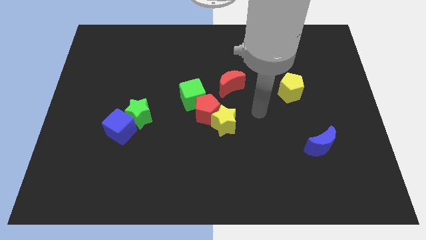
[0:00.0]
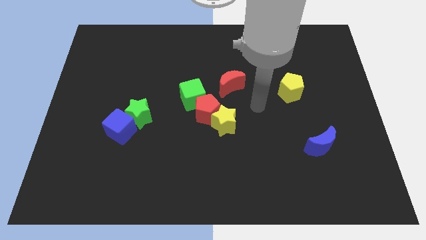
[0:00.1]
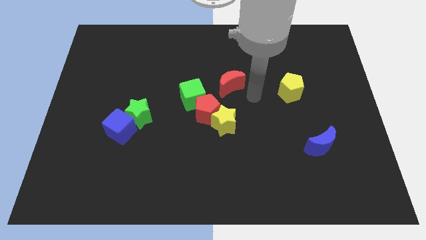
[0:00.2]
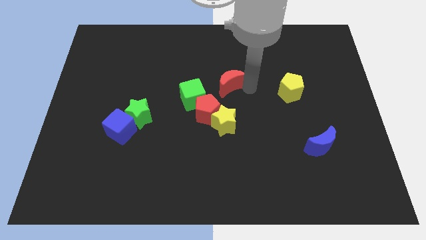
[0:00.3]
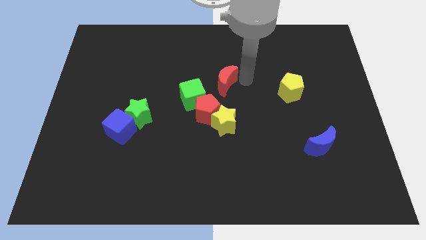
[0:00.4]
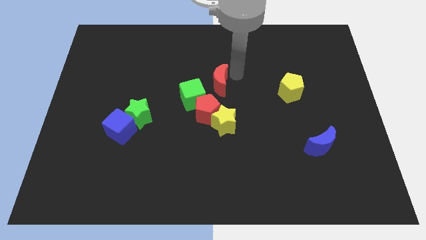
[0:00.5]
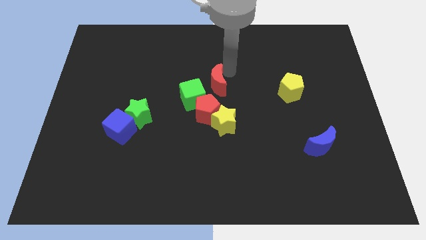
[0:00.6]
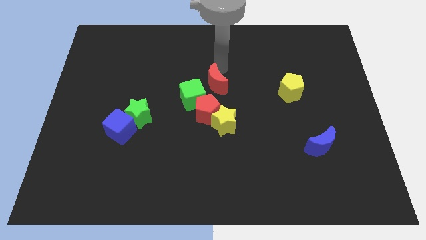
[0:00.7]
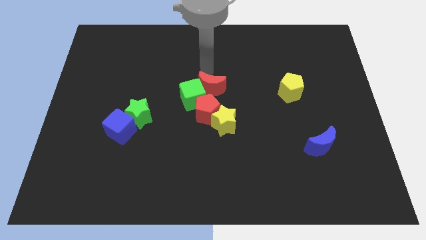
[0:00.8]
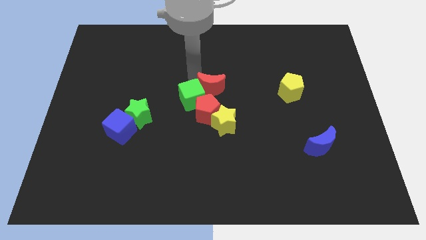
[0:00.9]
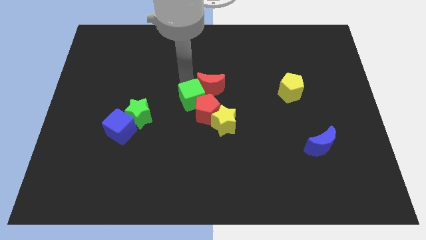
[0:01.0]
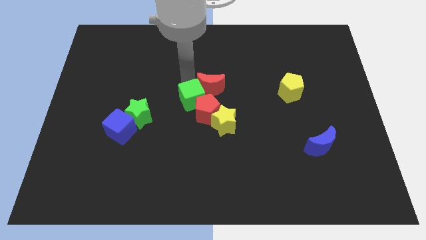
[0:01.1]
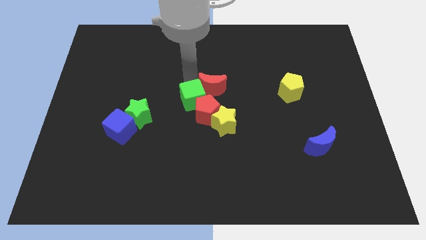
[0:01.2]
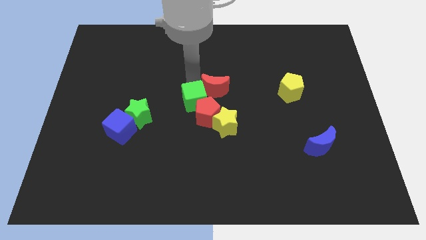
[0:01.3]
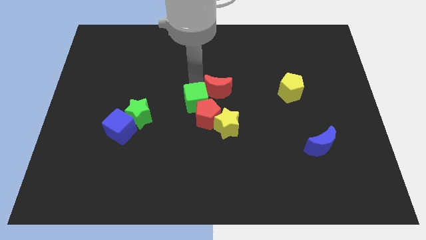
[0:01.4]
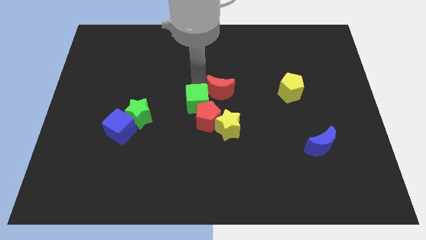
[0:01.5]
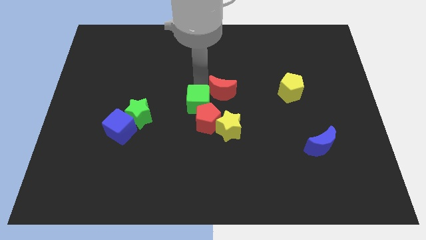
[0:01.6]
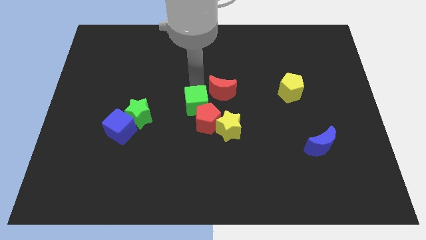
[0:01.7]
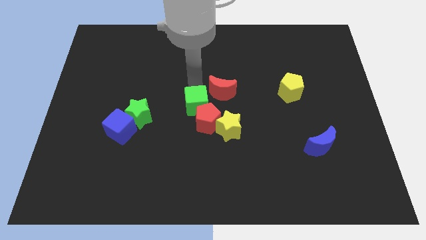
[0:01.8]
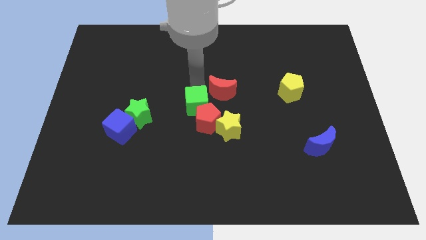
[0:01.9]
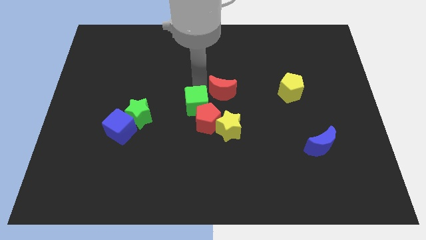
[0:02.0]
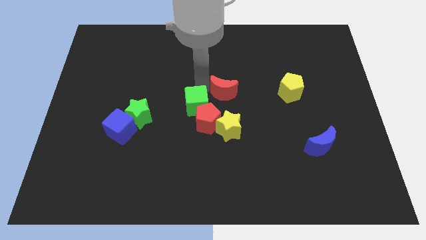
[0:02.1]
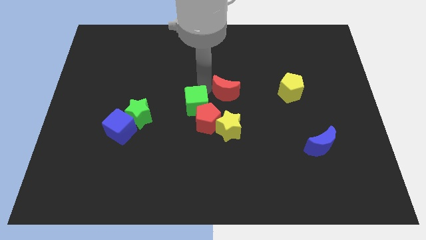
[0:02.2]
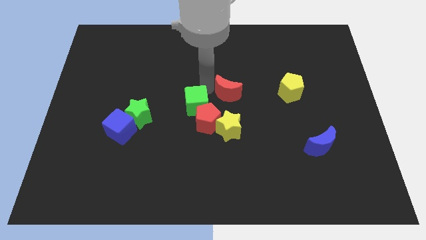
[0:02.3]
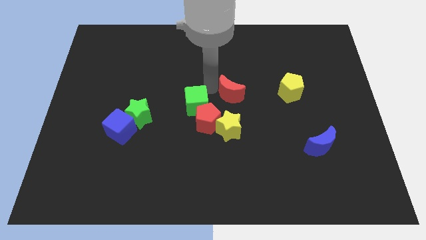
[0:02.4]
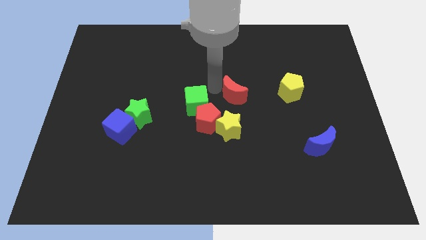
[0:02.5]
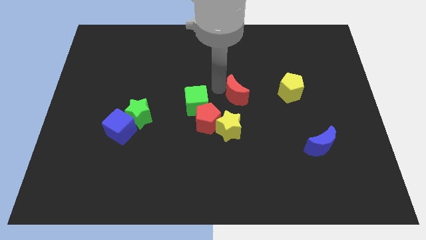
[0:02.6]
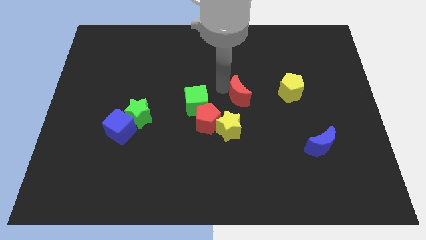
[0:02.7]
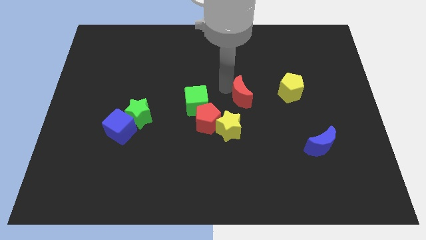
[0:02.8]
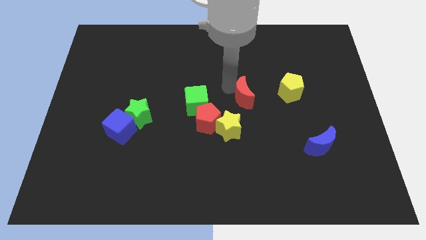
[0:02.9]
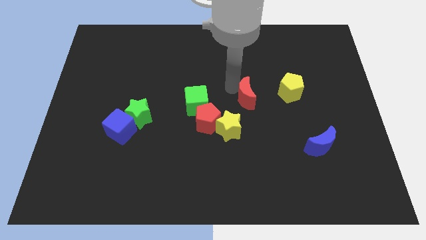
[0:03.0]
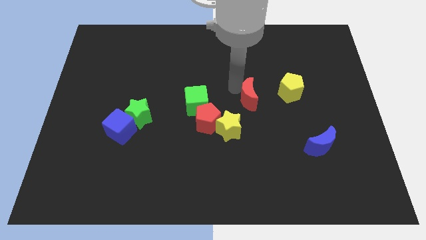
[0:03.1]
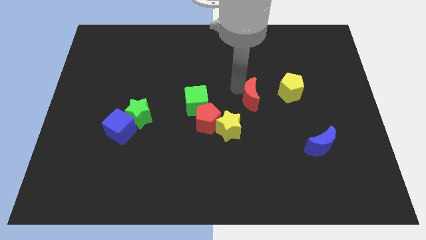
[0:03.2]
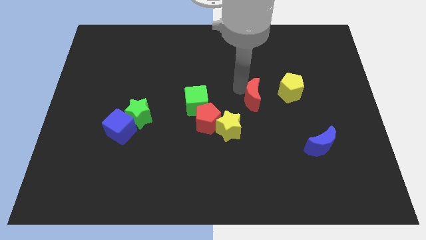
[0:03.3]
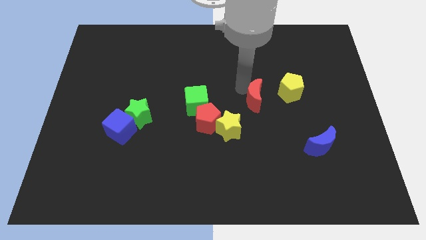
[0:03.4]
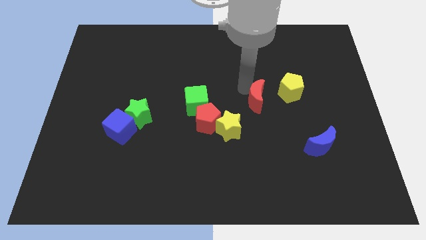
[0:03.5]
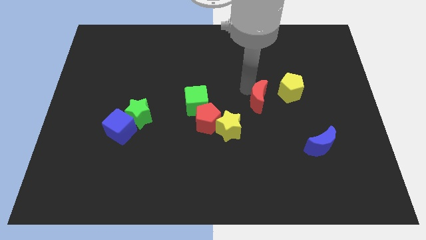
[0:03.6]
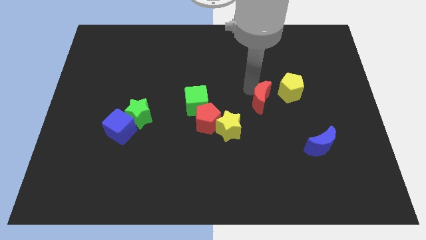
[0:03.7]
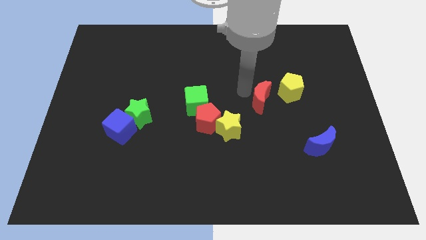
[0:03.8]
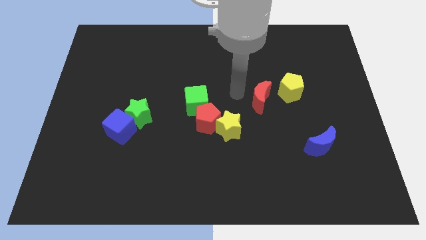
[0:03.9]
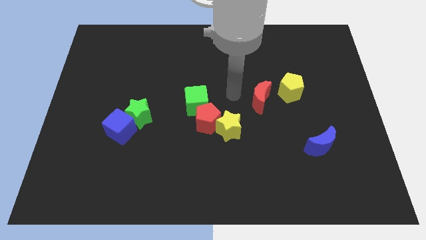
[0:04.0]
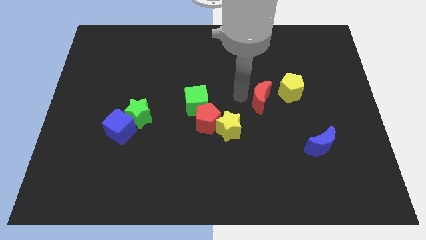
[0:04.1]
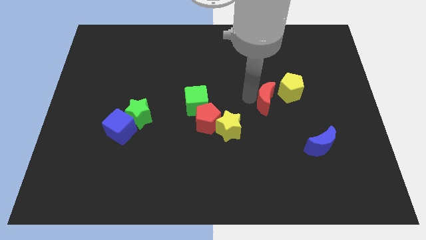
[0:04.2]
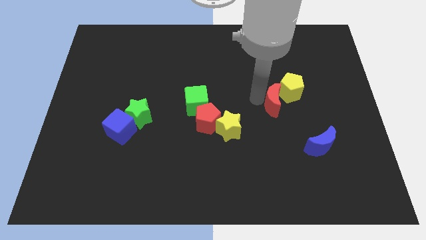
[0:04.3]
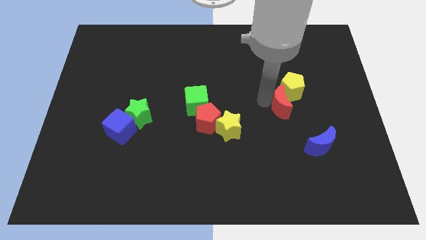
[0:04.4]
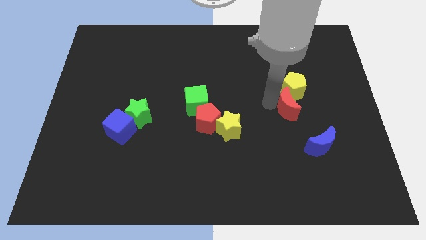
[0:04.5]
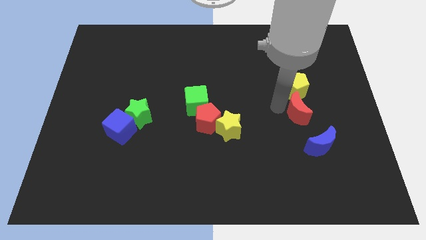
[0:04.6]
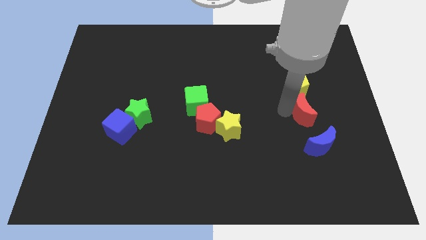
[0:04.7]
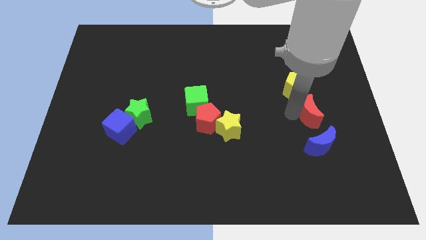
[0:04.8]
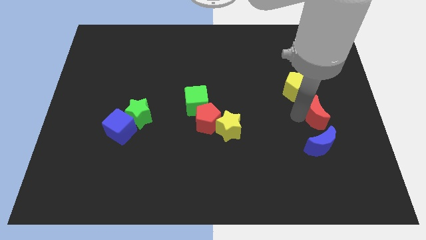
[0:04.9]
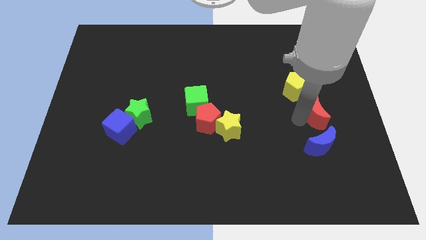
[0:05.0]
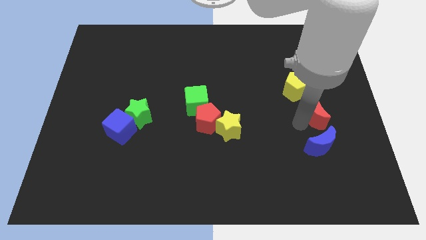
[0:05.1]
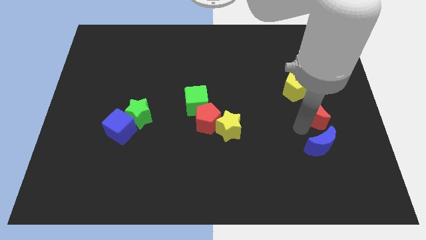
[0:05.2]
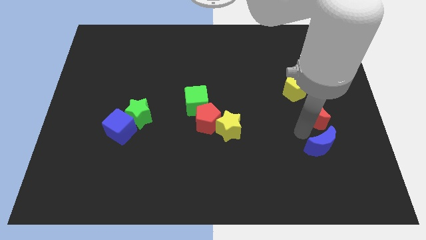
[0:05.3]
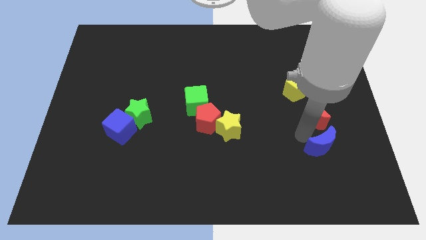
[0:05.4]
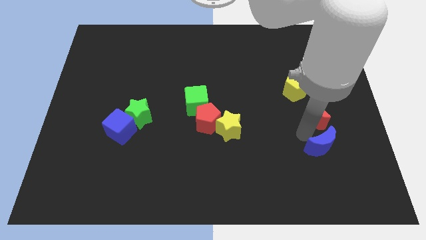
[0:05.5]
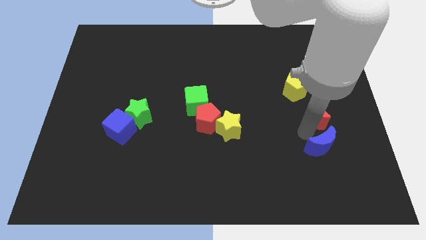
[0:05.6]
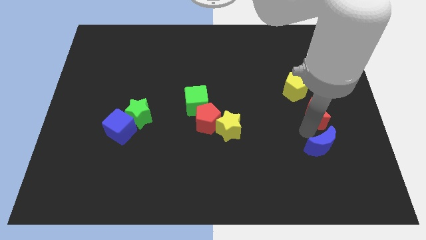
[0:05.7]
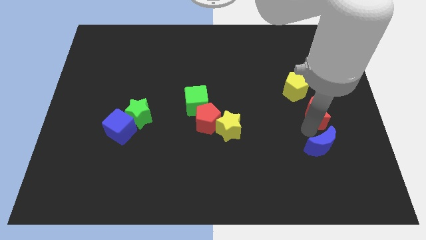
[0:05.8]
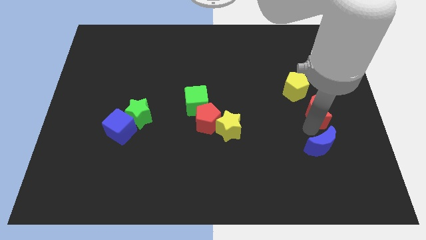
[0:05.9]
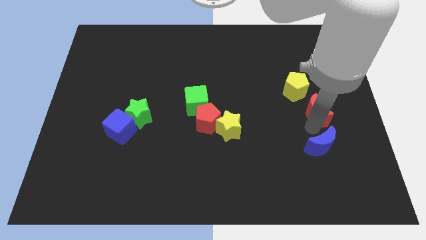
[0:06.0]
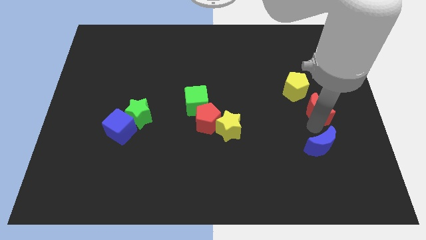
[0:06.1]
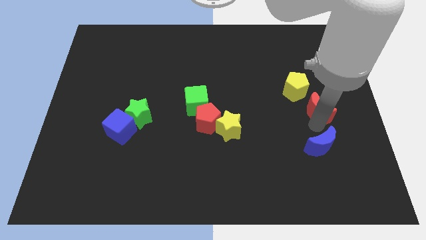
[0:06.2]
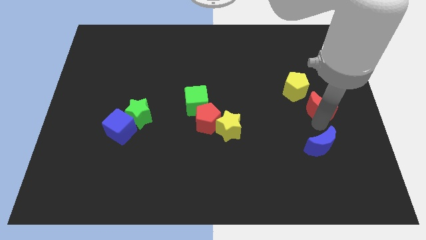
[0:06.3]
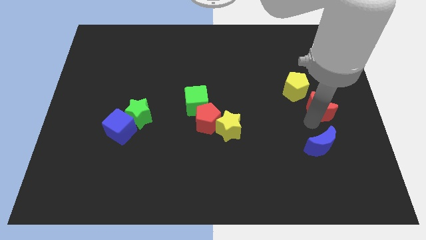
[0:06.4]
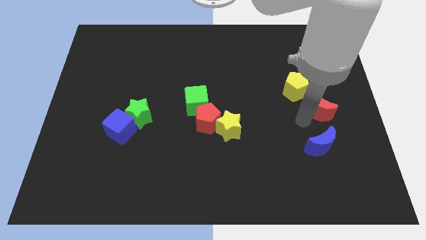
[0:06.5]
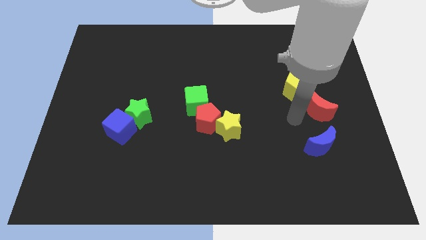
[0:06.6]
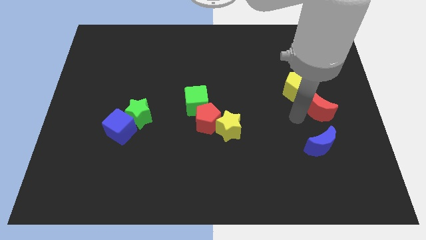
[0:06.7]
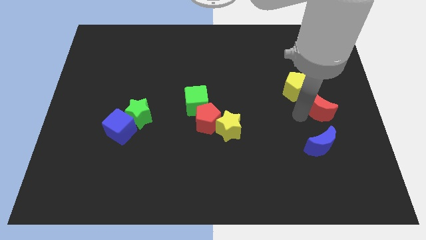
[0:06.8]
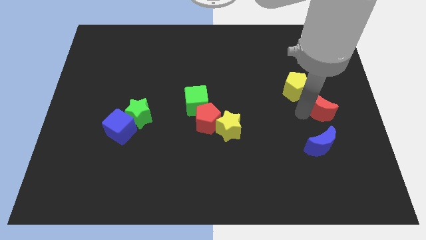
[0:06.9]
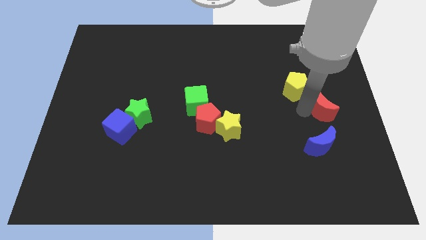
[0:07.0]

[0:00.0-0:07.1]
push the red moon to the right side of the board
